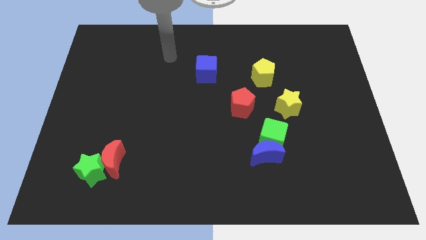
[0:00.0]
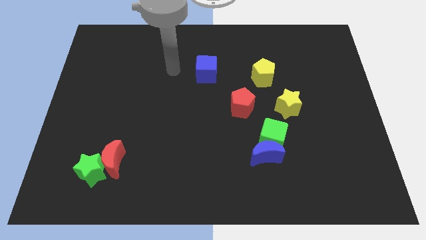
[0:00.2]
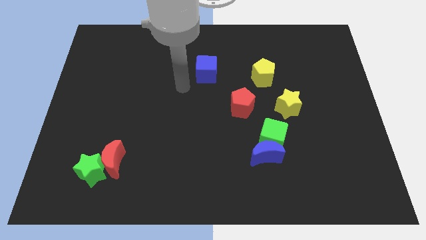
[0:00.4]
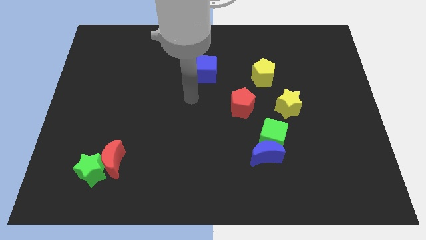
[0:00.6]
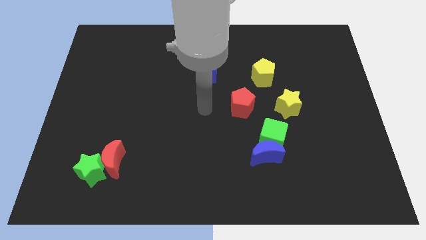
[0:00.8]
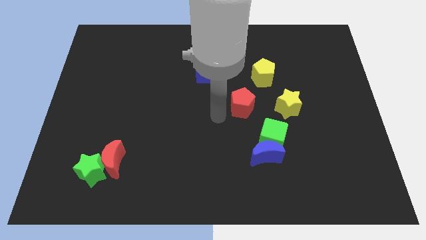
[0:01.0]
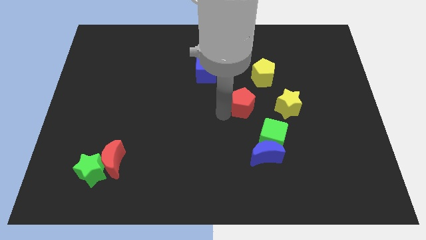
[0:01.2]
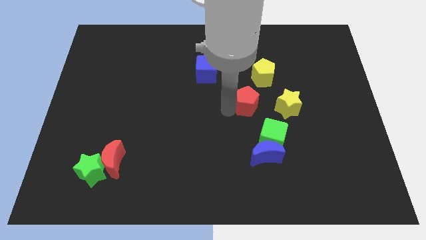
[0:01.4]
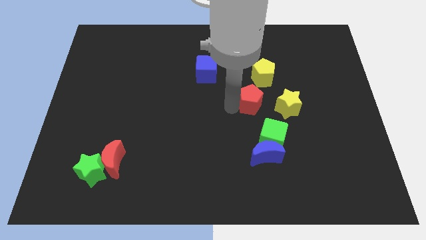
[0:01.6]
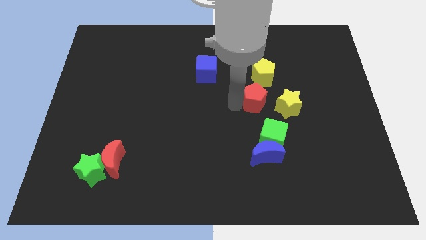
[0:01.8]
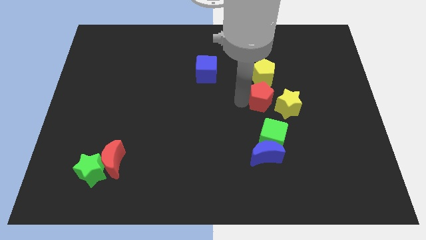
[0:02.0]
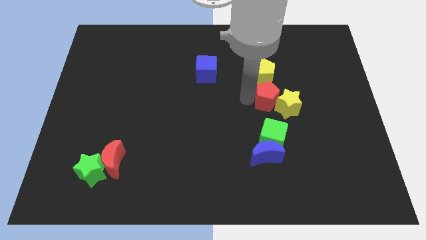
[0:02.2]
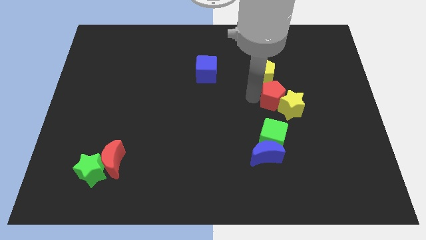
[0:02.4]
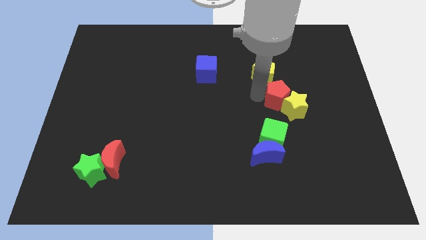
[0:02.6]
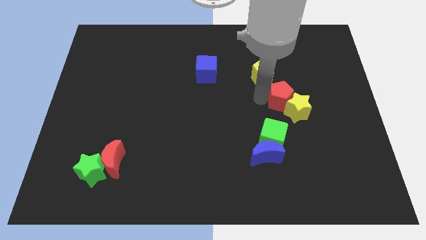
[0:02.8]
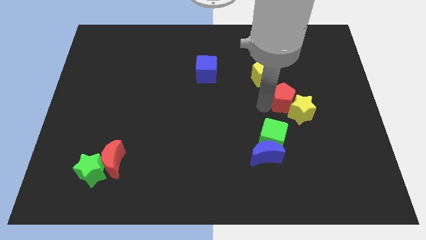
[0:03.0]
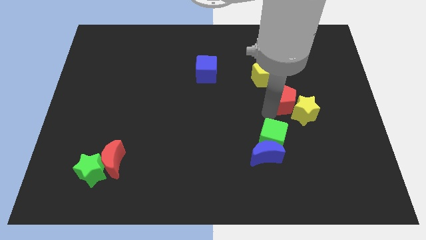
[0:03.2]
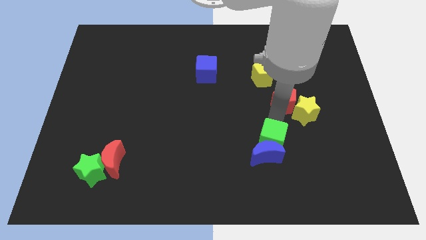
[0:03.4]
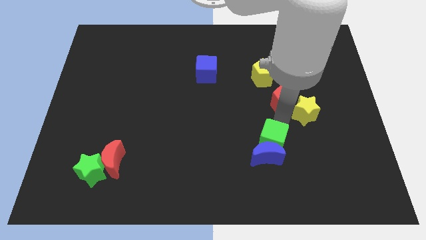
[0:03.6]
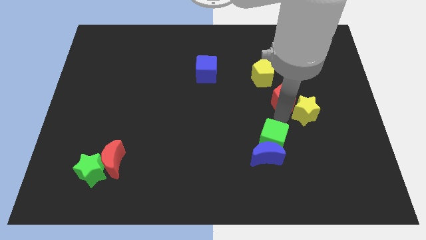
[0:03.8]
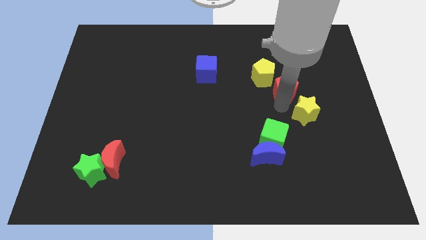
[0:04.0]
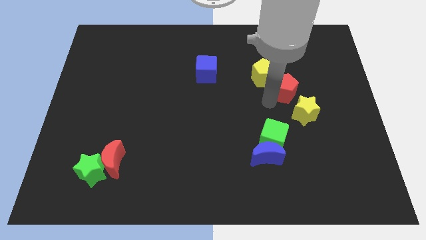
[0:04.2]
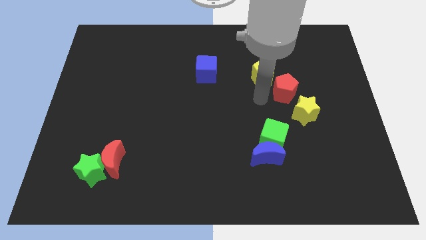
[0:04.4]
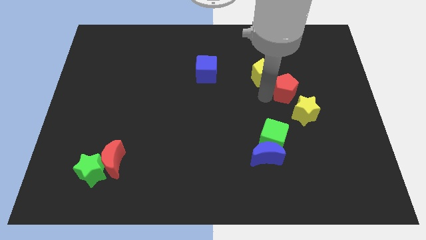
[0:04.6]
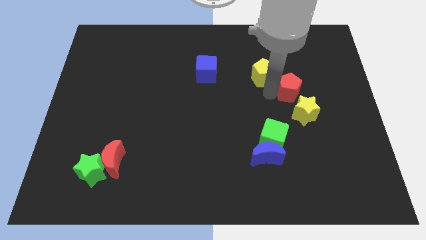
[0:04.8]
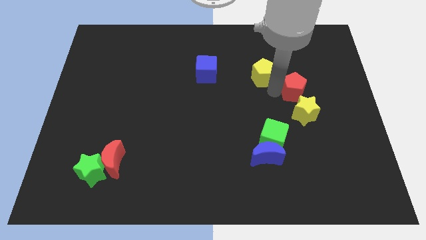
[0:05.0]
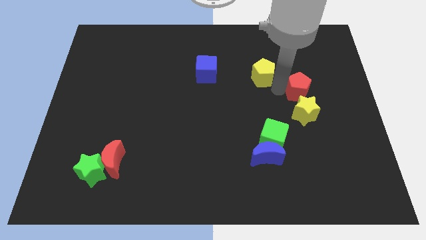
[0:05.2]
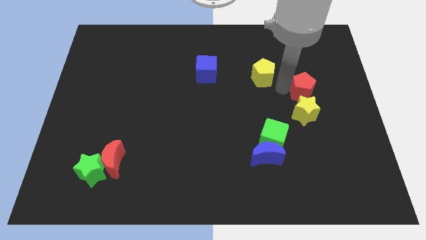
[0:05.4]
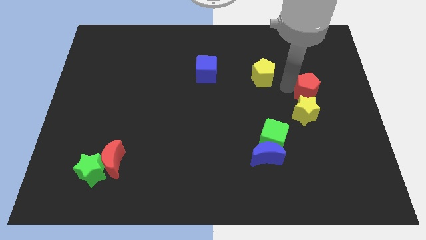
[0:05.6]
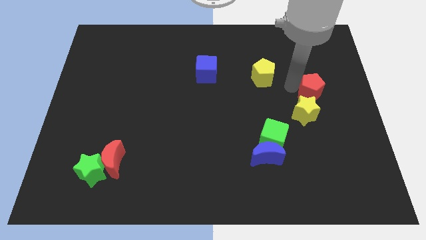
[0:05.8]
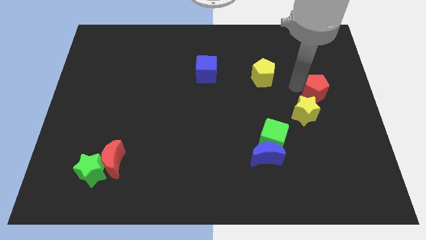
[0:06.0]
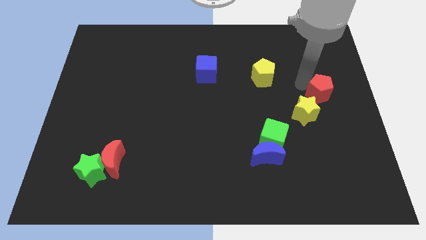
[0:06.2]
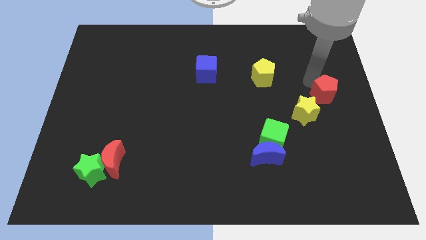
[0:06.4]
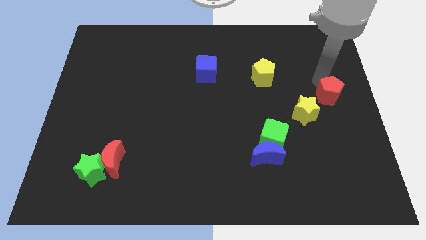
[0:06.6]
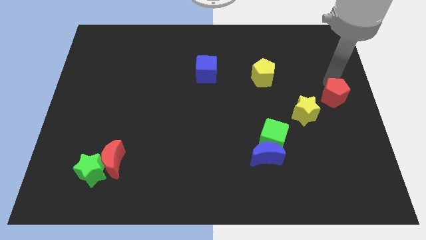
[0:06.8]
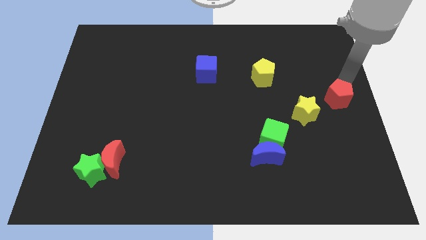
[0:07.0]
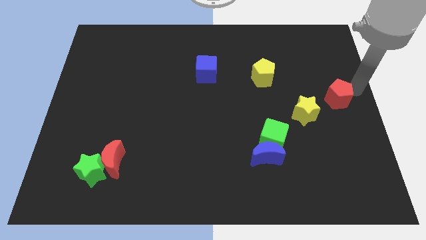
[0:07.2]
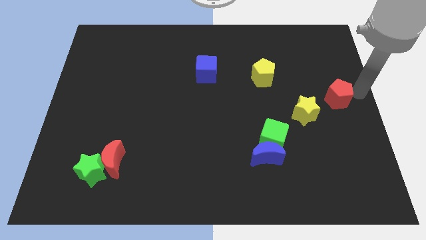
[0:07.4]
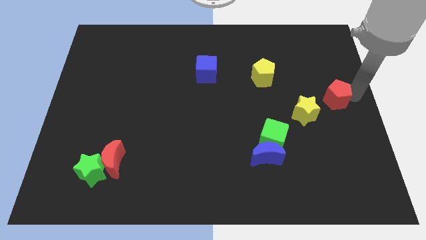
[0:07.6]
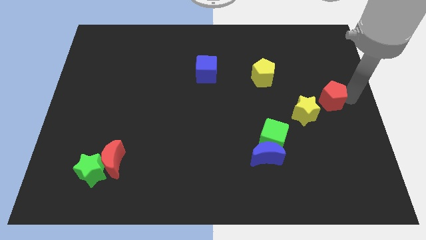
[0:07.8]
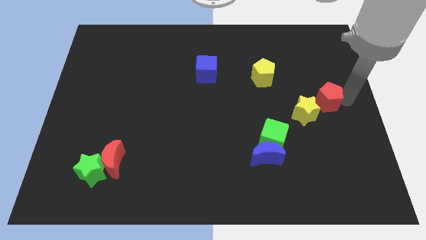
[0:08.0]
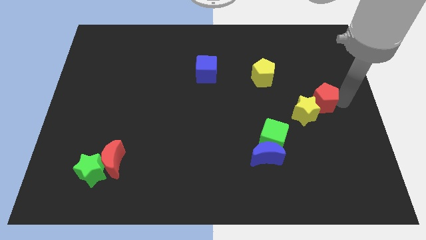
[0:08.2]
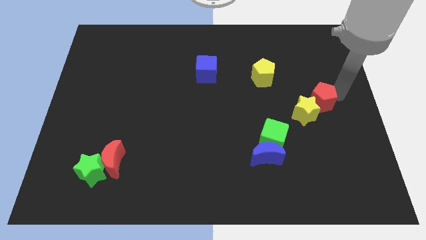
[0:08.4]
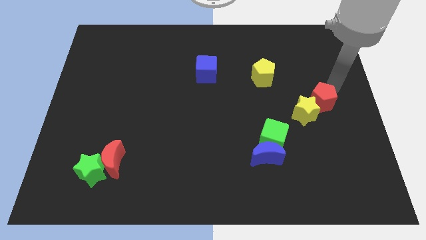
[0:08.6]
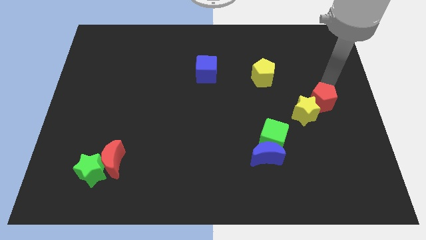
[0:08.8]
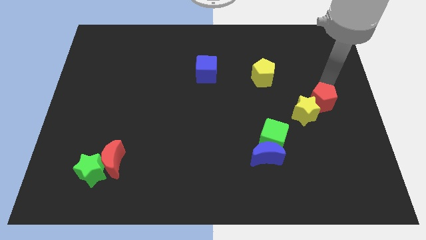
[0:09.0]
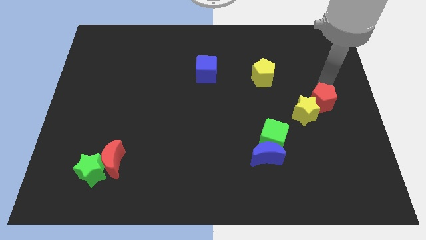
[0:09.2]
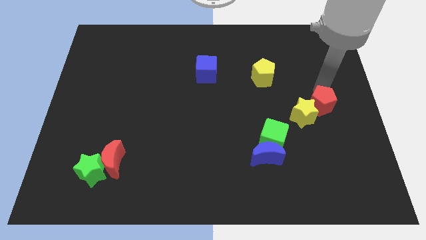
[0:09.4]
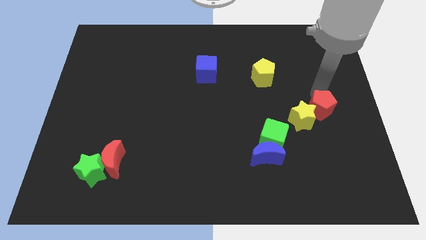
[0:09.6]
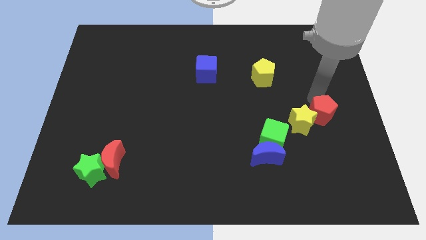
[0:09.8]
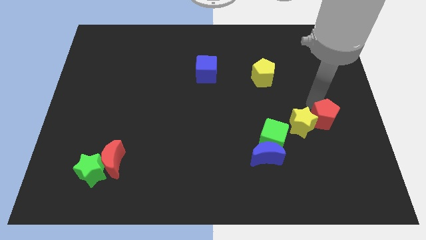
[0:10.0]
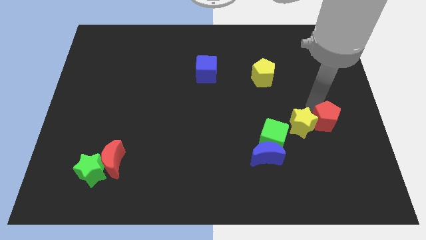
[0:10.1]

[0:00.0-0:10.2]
move the red pentagon right of the green cube

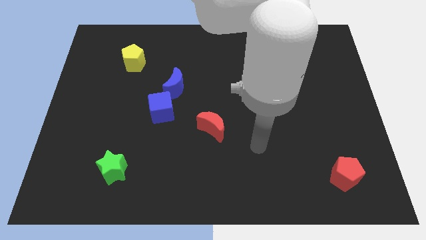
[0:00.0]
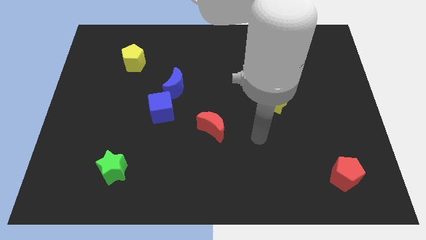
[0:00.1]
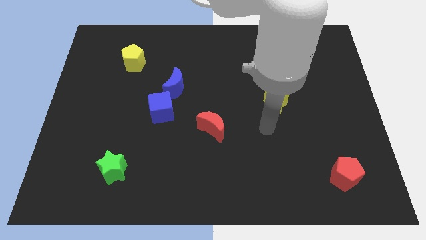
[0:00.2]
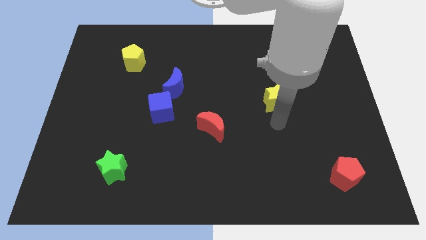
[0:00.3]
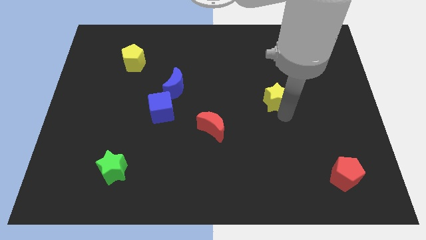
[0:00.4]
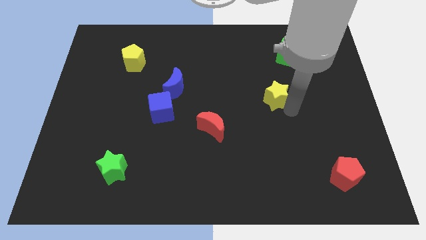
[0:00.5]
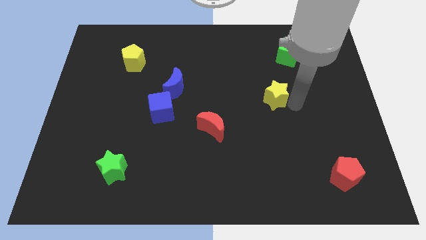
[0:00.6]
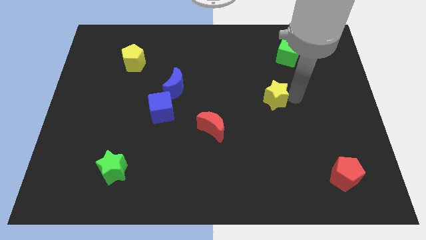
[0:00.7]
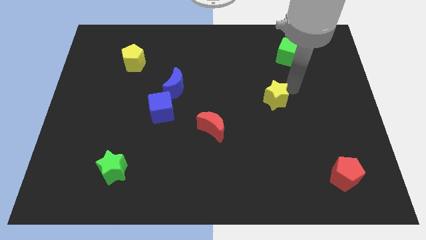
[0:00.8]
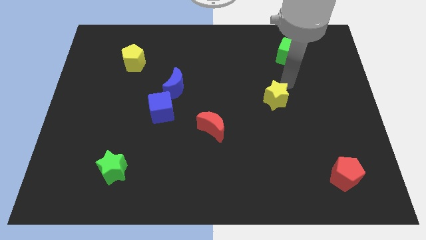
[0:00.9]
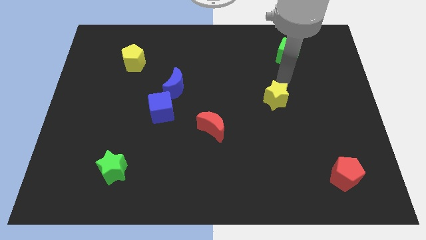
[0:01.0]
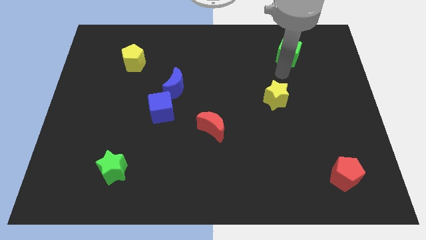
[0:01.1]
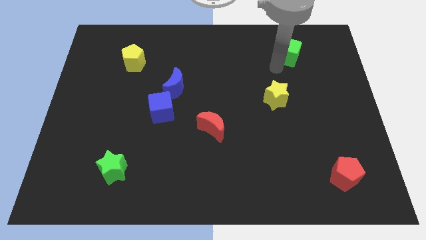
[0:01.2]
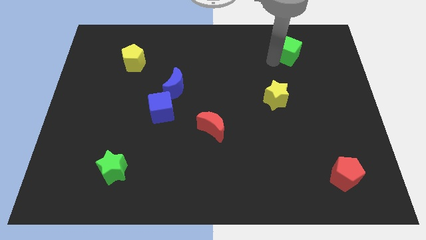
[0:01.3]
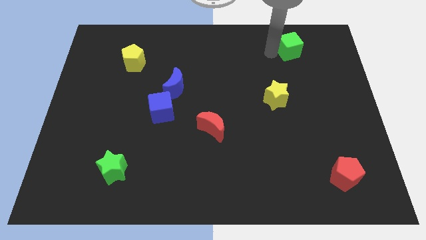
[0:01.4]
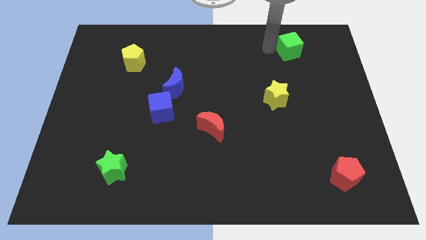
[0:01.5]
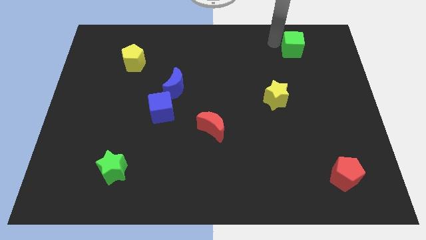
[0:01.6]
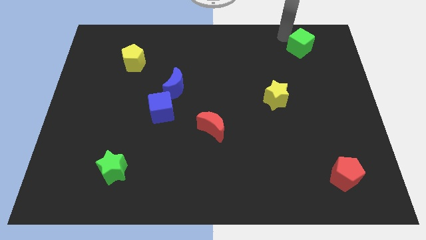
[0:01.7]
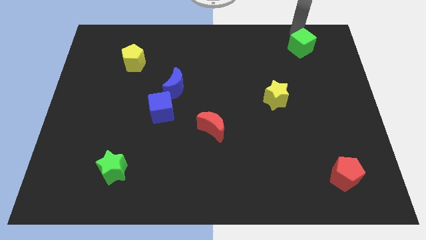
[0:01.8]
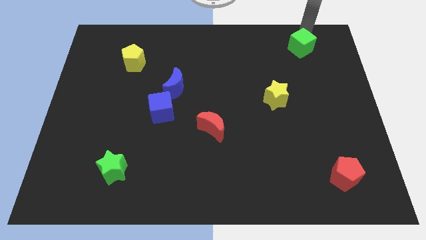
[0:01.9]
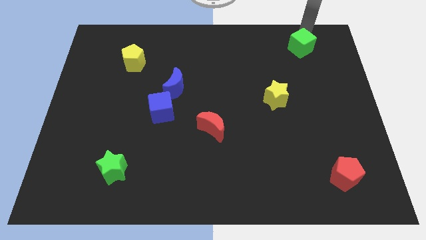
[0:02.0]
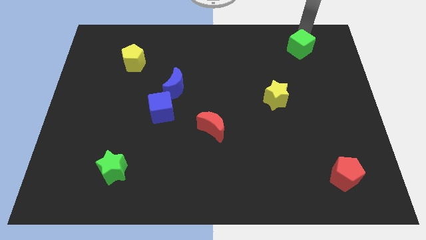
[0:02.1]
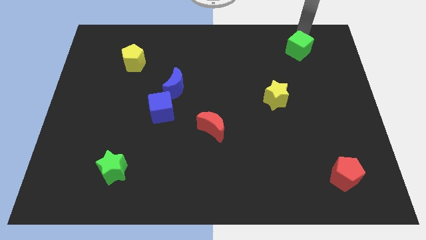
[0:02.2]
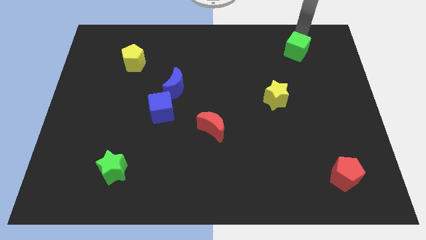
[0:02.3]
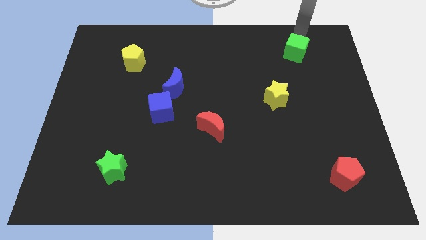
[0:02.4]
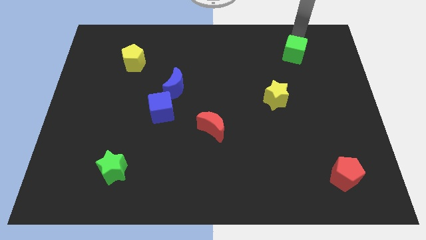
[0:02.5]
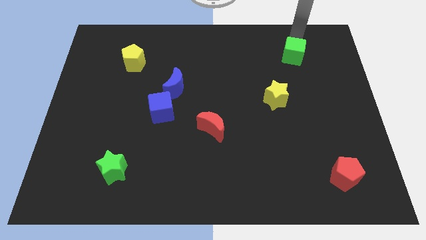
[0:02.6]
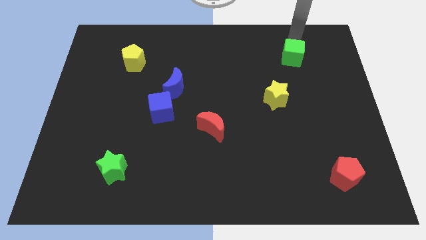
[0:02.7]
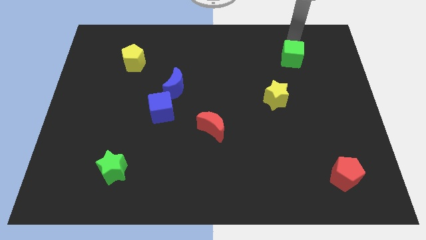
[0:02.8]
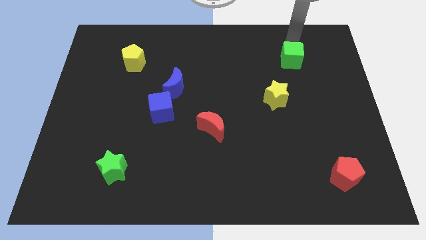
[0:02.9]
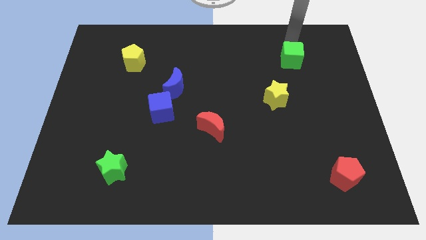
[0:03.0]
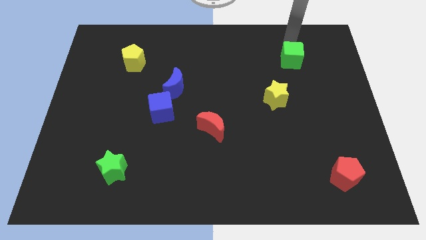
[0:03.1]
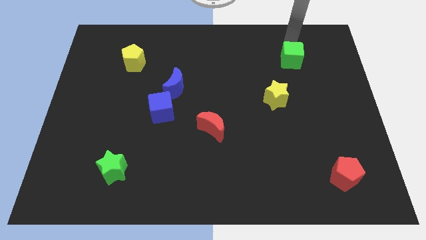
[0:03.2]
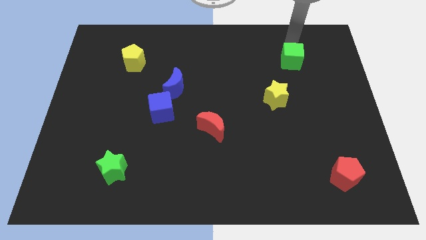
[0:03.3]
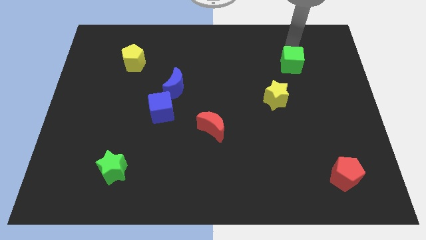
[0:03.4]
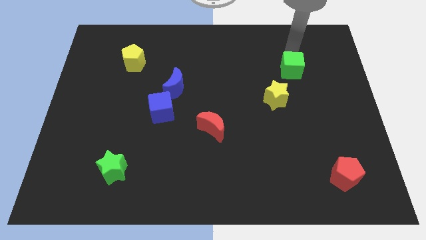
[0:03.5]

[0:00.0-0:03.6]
put the green cube diagonally up and to the right of the yellow star
